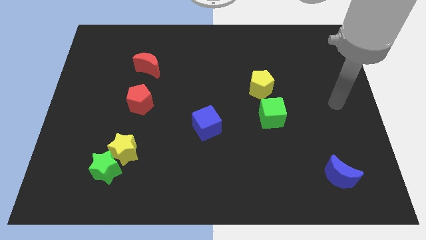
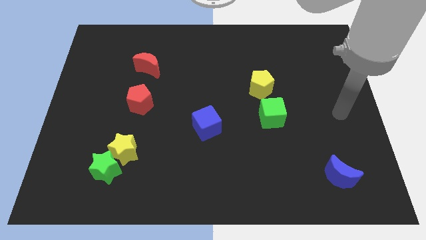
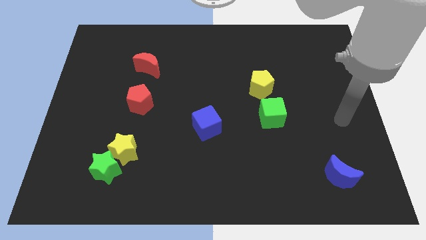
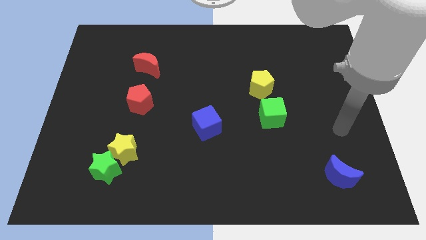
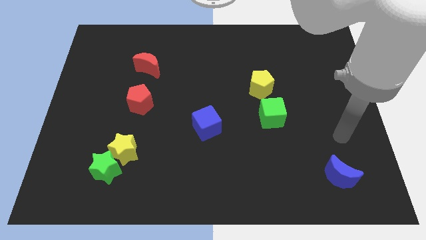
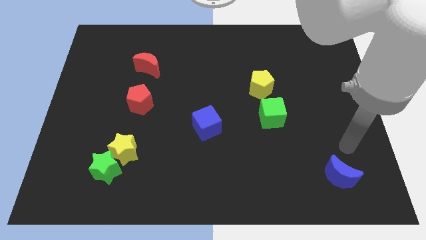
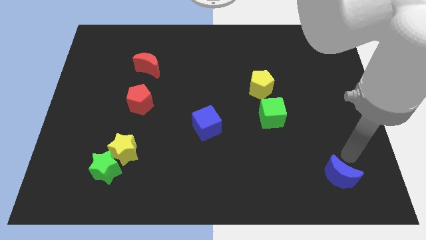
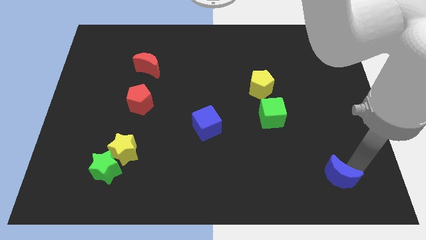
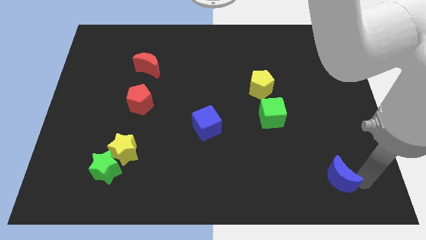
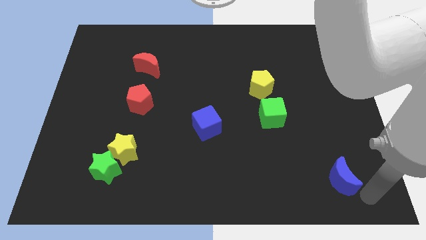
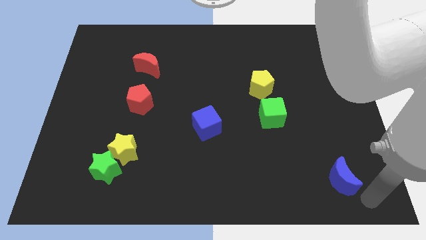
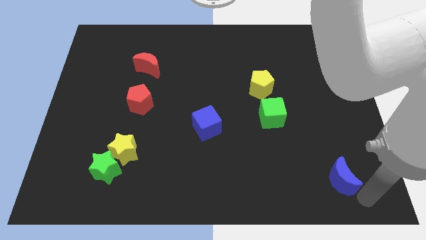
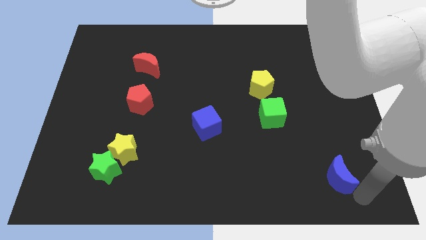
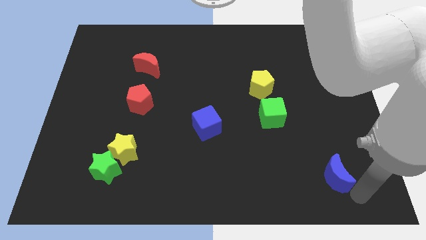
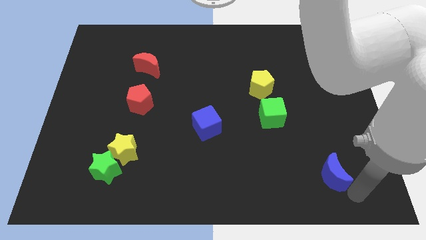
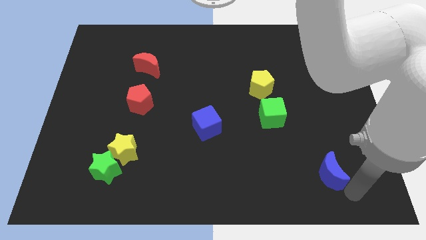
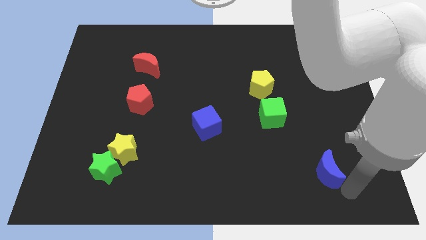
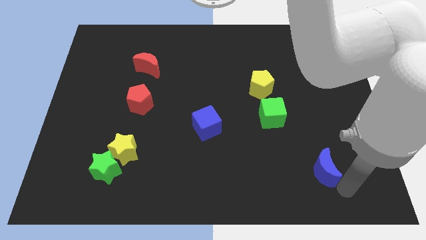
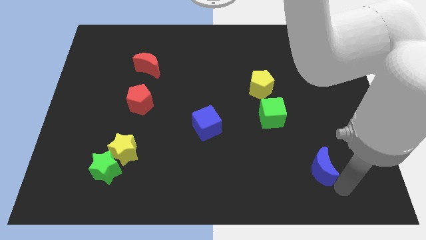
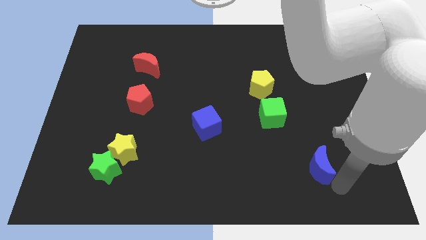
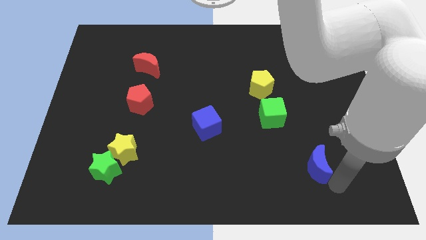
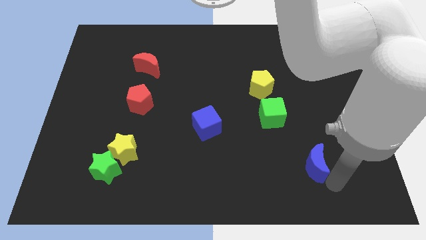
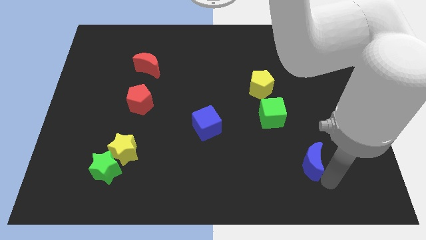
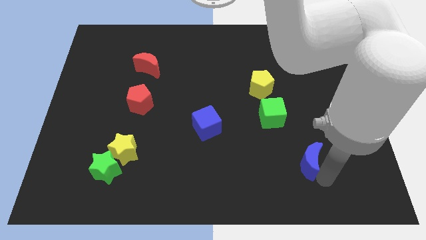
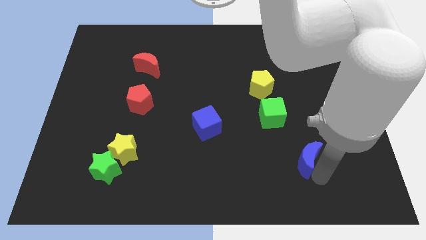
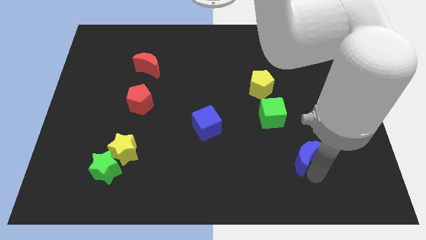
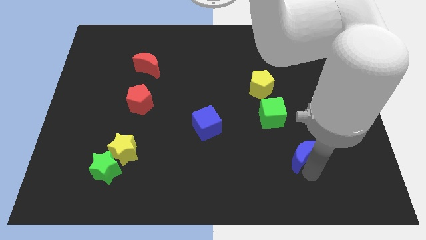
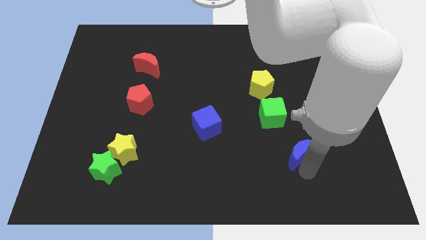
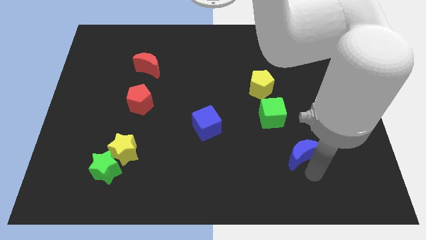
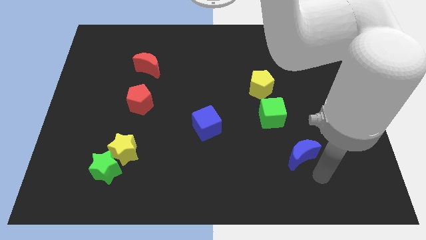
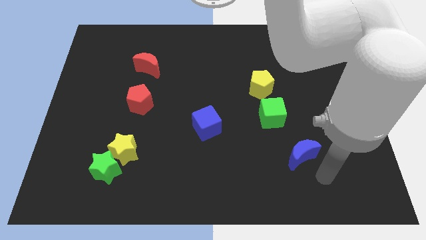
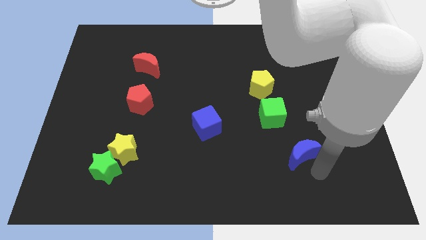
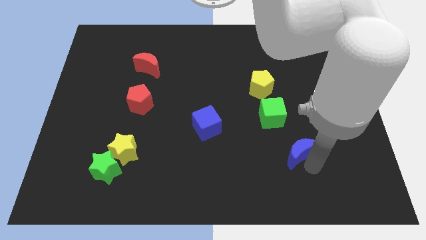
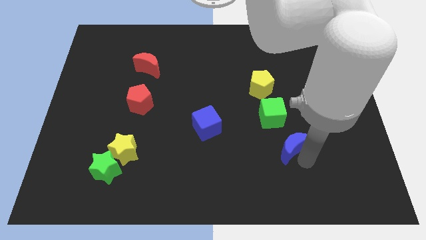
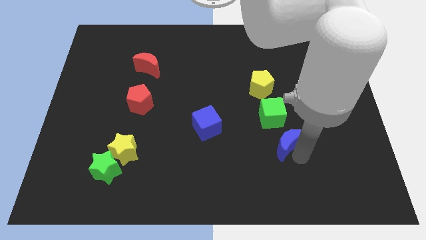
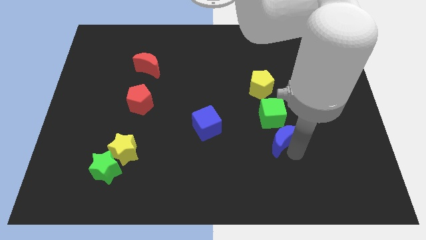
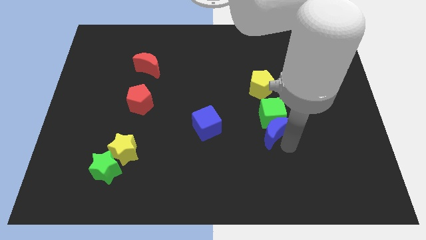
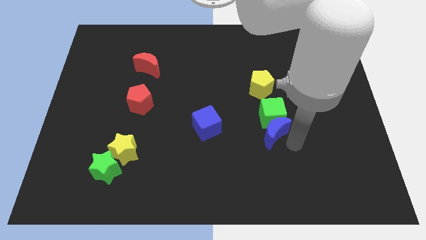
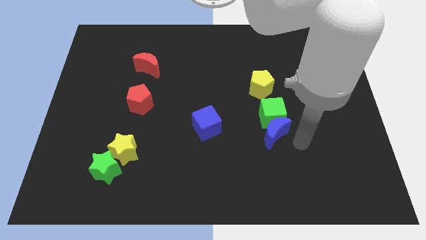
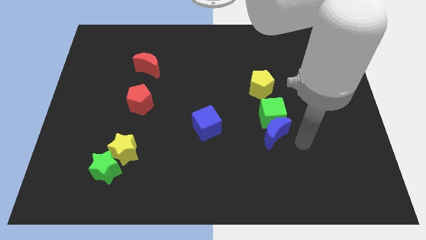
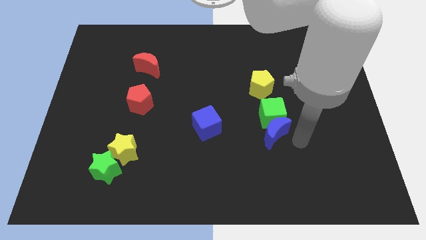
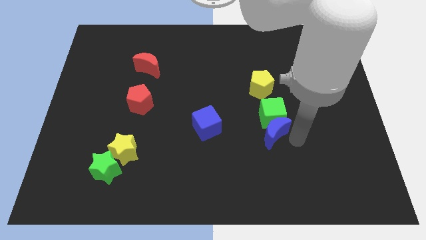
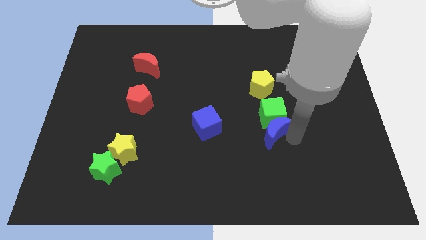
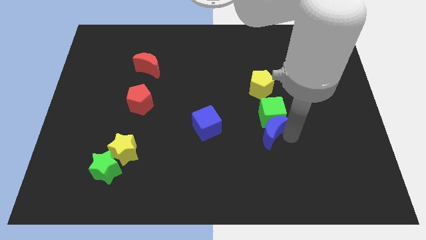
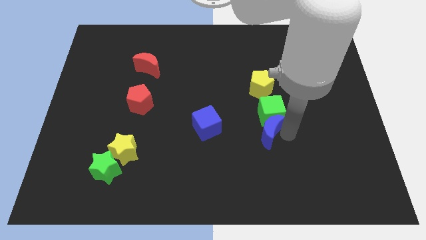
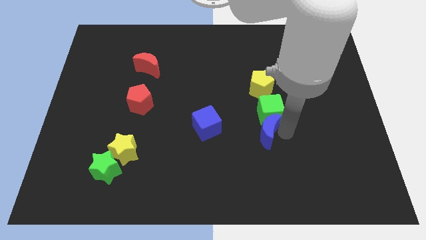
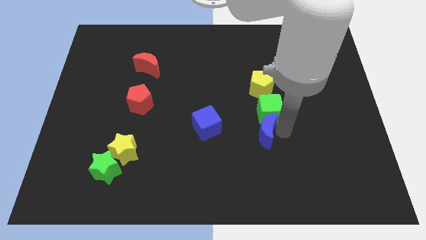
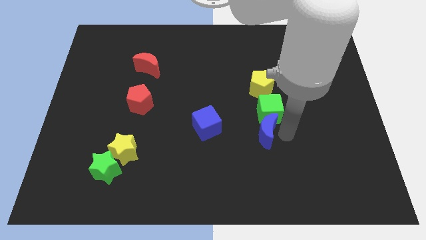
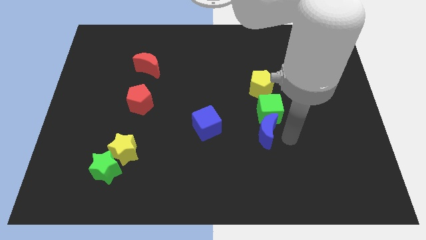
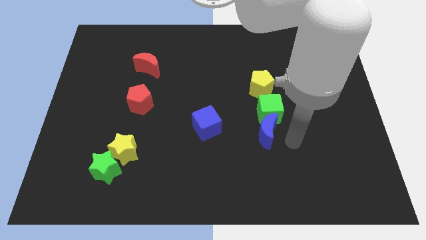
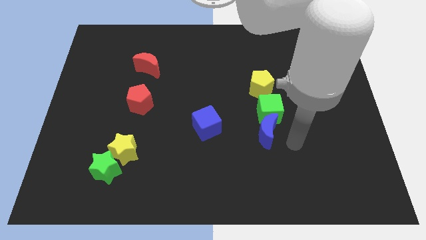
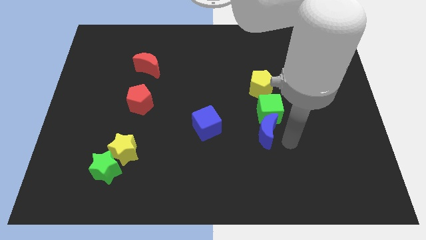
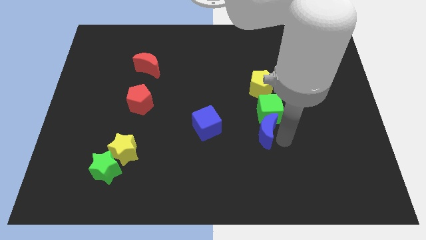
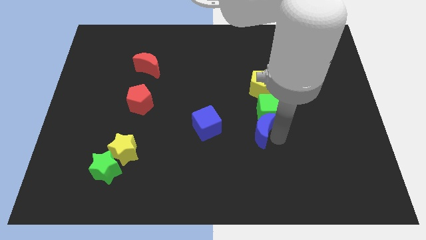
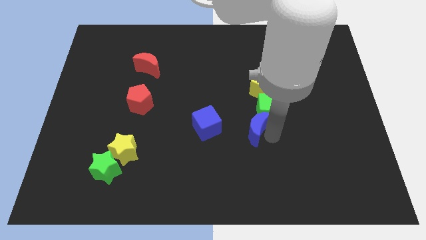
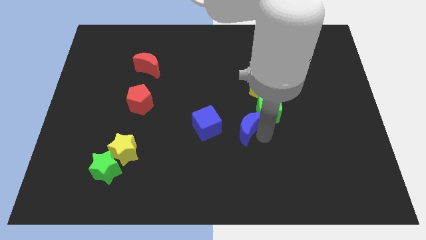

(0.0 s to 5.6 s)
move the blue moon upwards and to the left

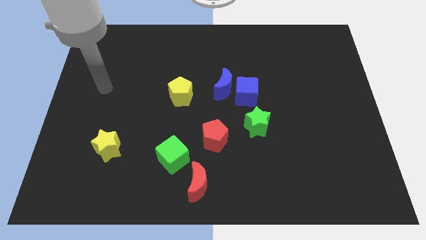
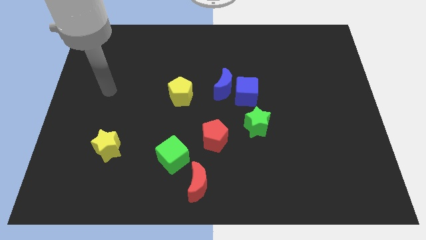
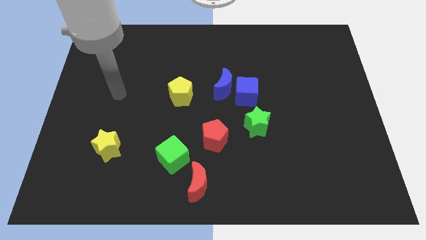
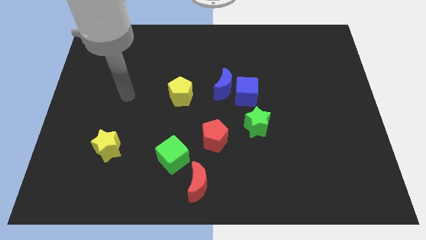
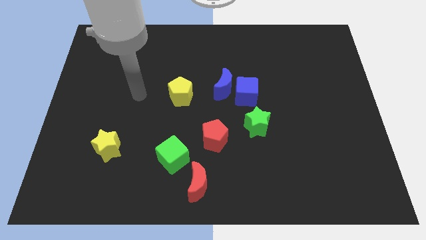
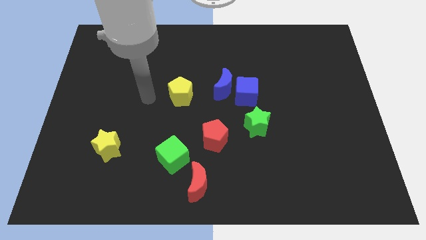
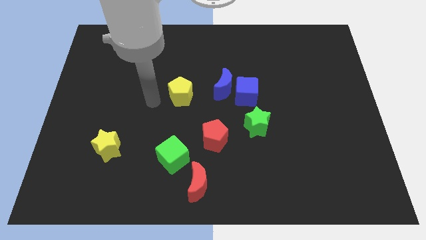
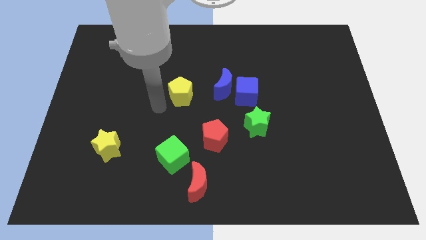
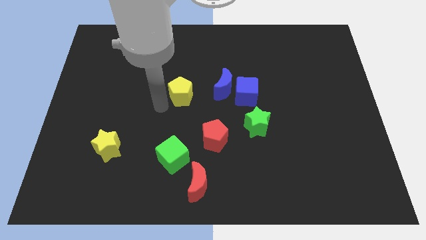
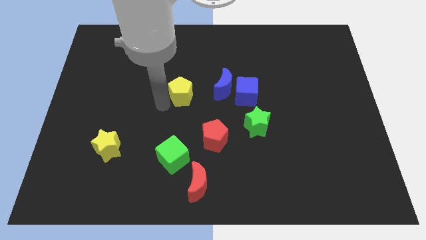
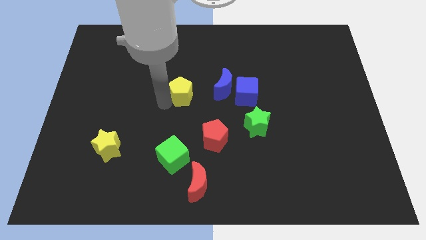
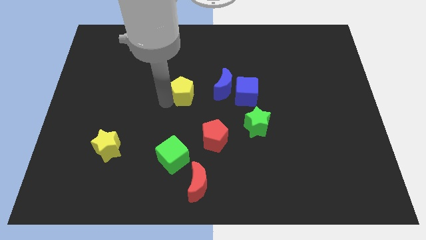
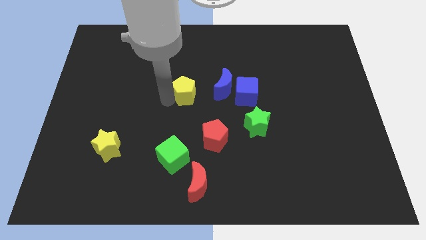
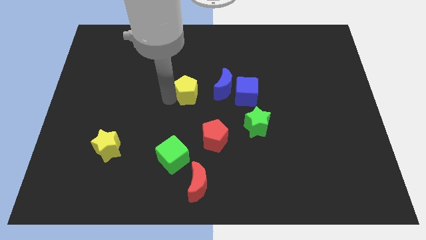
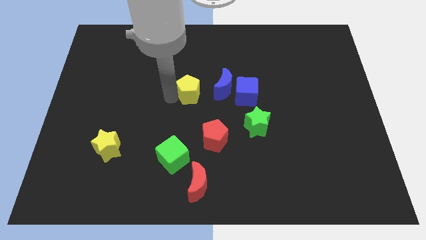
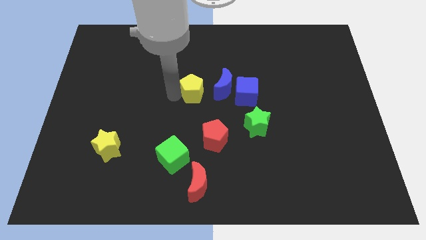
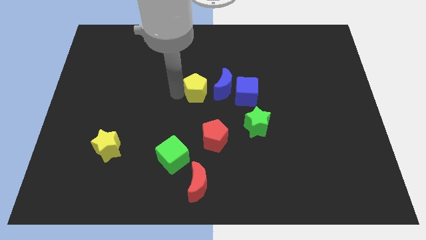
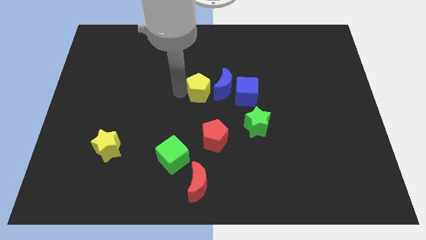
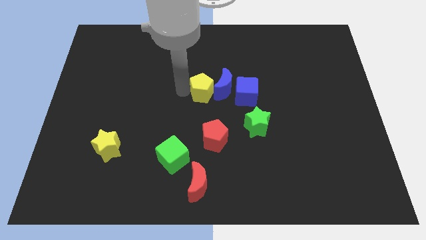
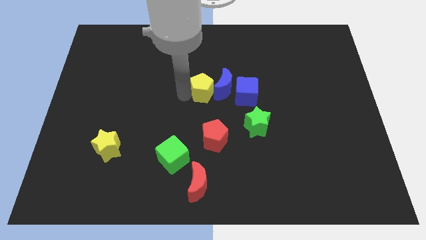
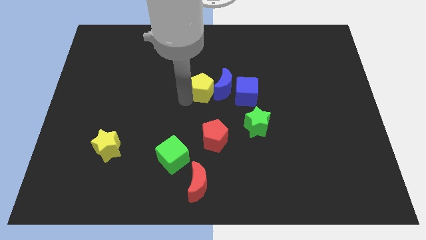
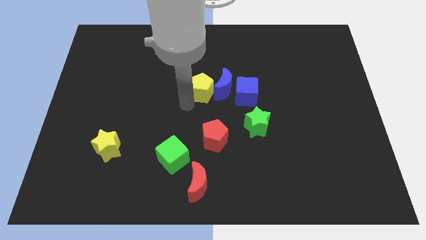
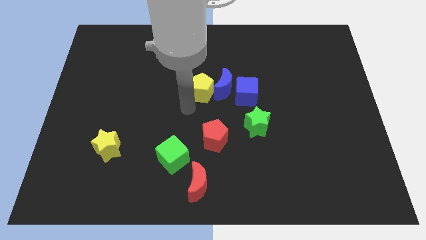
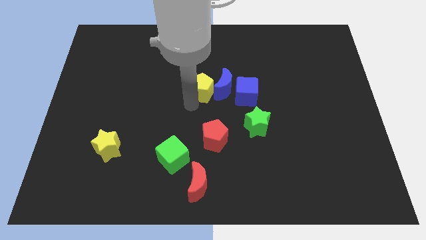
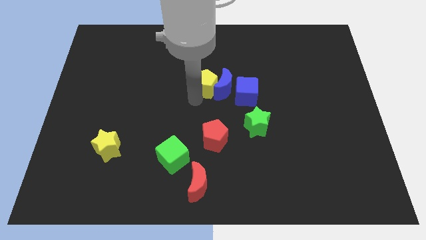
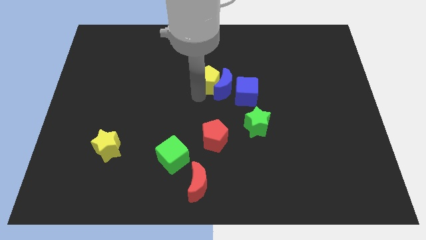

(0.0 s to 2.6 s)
slightly move the yellow pentagon upwards and right
